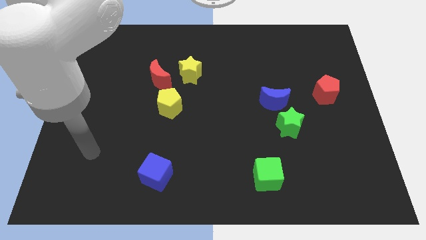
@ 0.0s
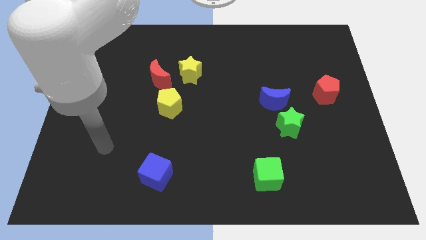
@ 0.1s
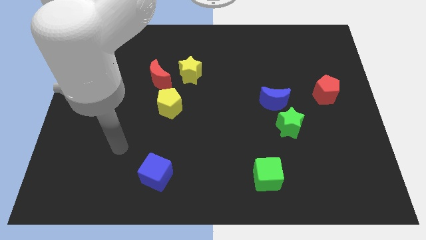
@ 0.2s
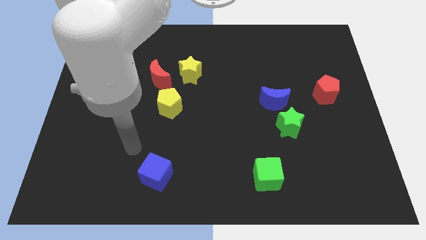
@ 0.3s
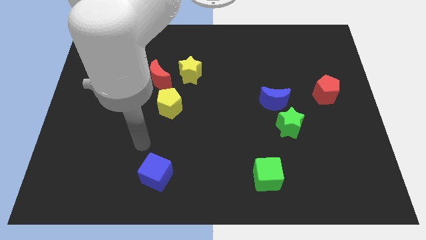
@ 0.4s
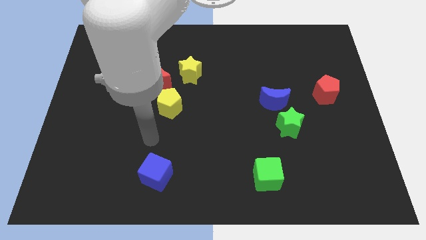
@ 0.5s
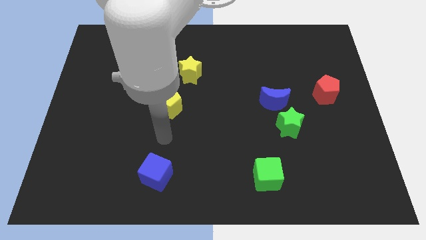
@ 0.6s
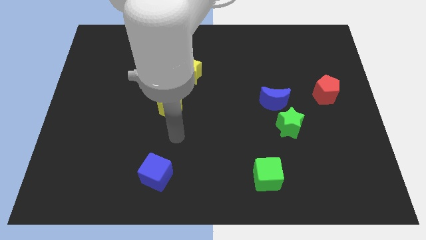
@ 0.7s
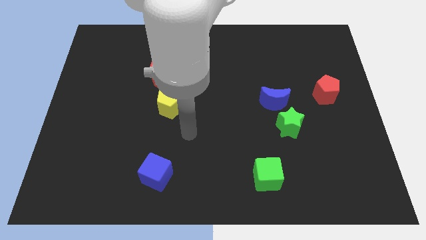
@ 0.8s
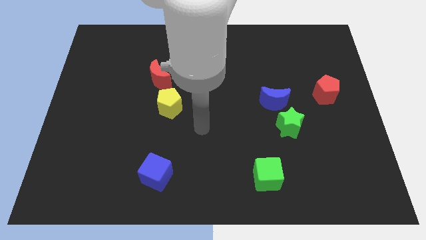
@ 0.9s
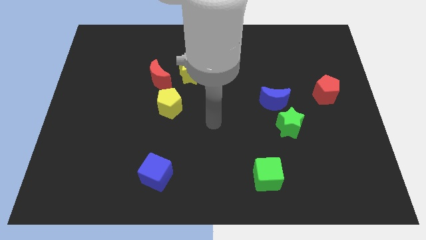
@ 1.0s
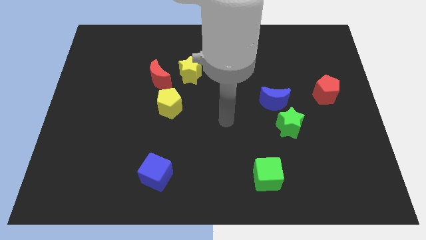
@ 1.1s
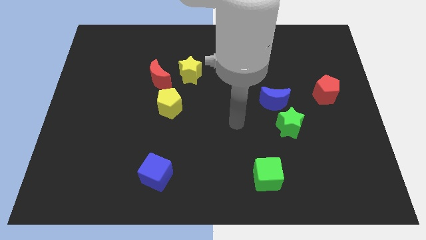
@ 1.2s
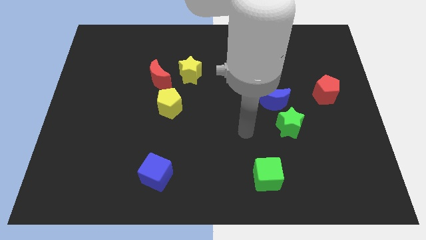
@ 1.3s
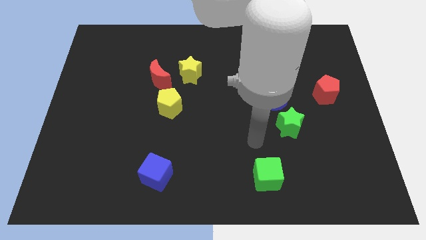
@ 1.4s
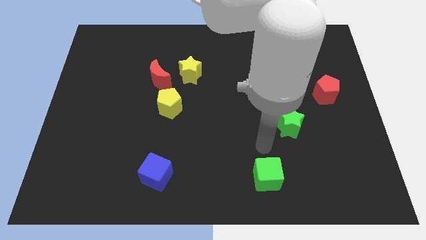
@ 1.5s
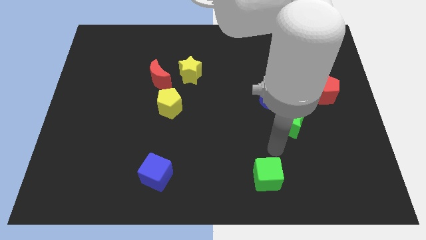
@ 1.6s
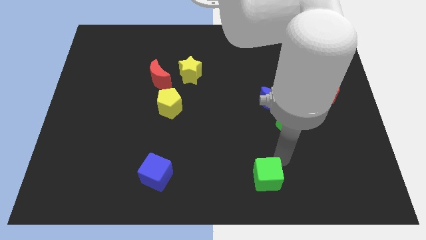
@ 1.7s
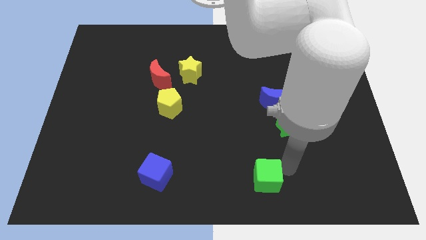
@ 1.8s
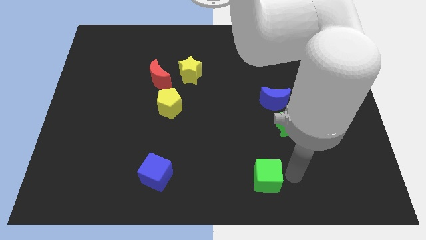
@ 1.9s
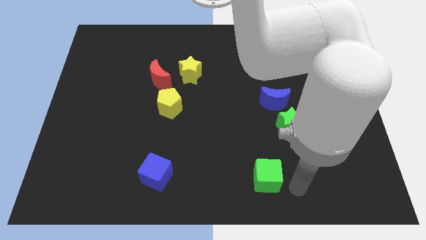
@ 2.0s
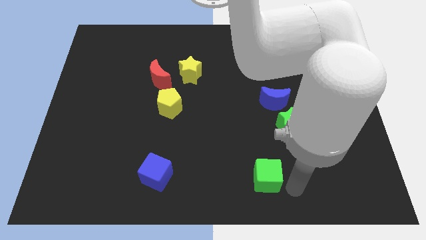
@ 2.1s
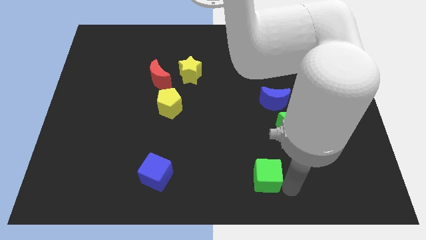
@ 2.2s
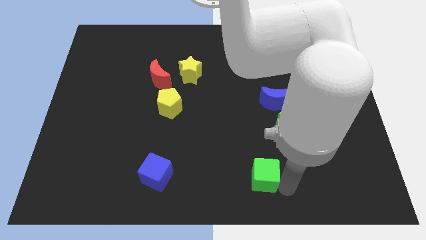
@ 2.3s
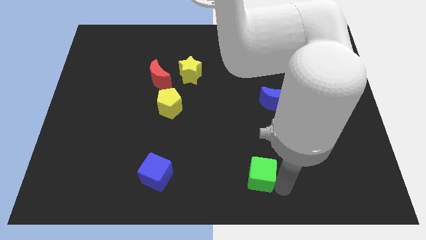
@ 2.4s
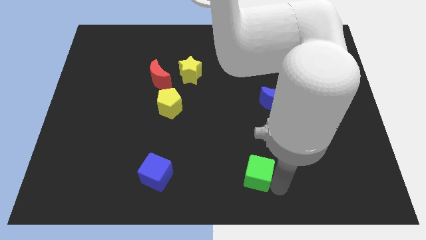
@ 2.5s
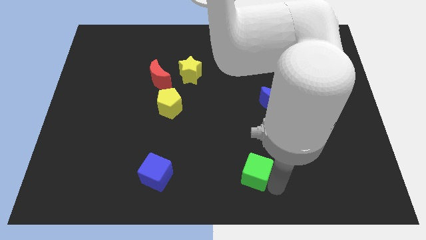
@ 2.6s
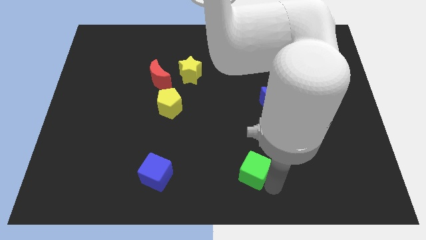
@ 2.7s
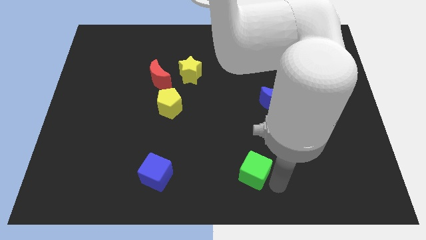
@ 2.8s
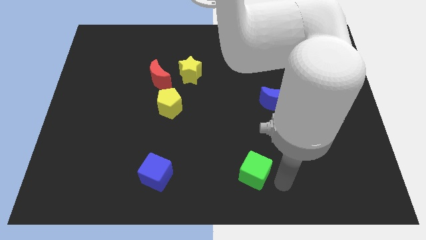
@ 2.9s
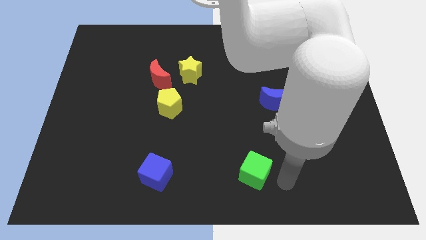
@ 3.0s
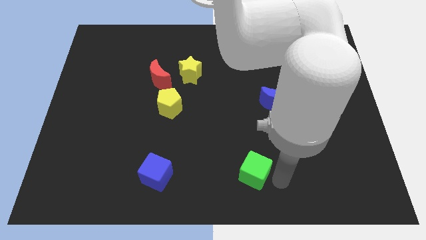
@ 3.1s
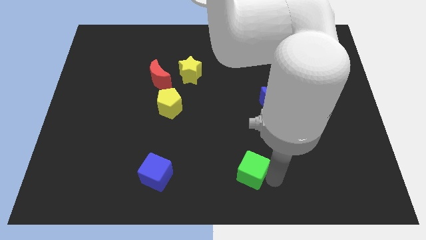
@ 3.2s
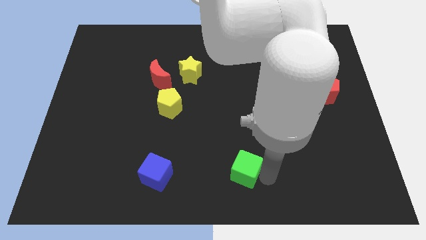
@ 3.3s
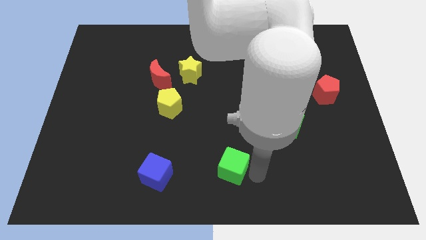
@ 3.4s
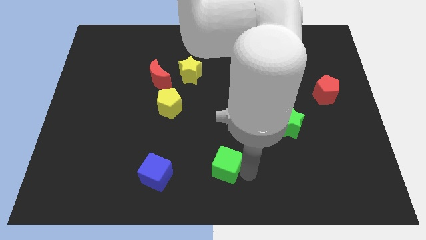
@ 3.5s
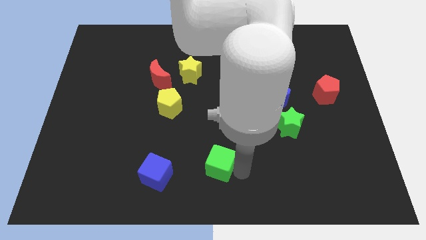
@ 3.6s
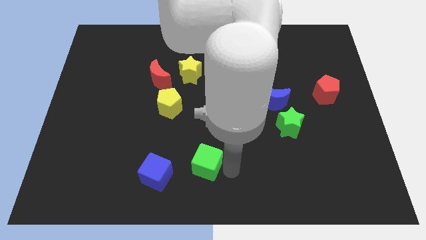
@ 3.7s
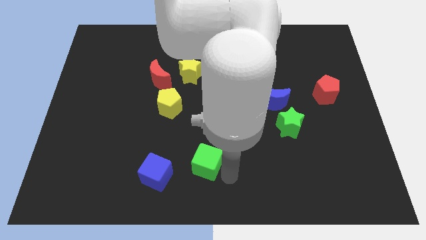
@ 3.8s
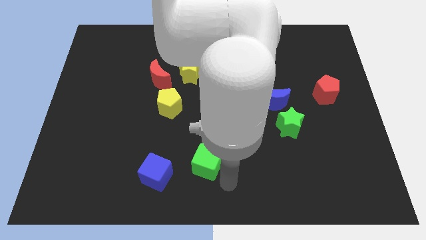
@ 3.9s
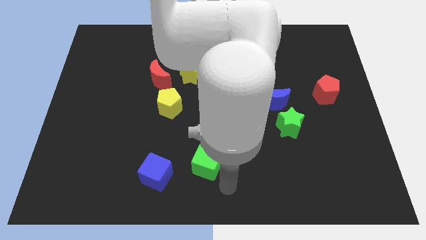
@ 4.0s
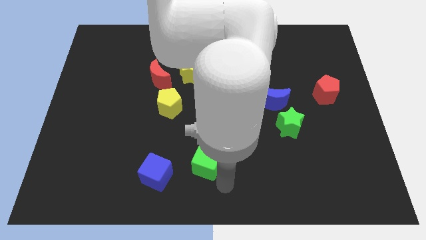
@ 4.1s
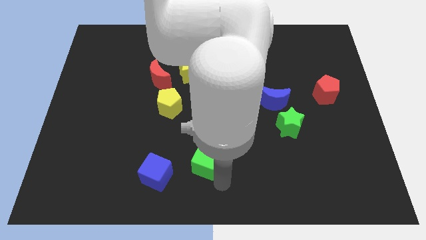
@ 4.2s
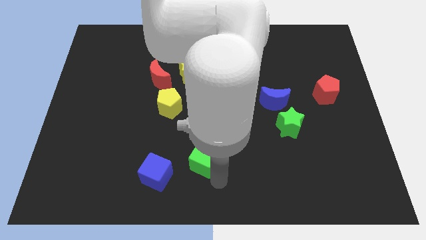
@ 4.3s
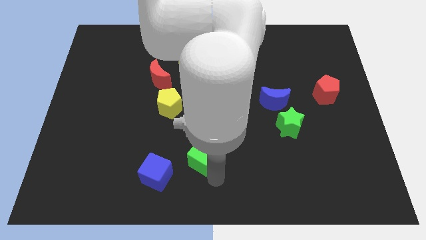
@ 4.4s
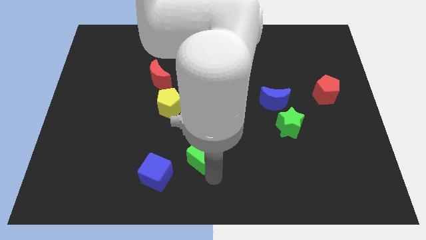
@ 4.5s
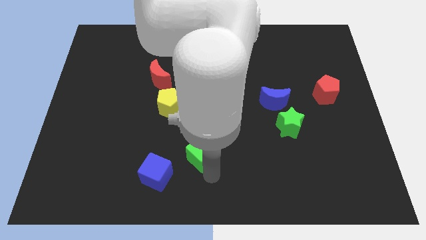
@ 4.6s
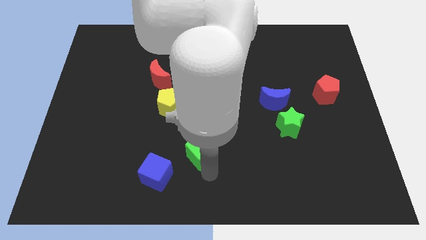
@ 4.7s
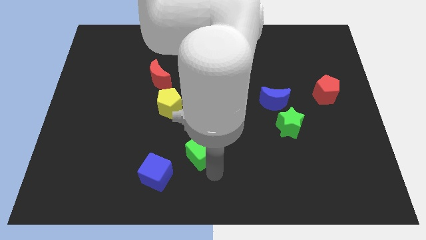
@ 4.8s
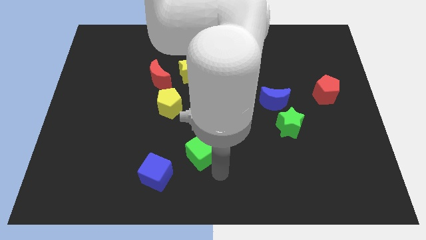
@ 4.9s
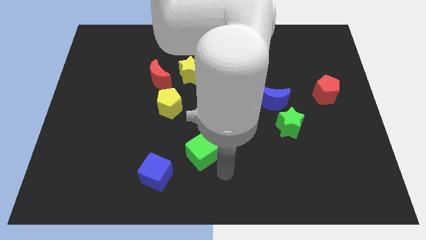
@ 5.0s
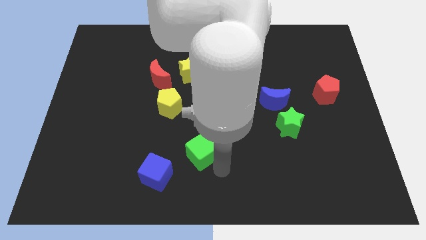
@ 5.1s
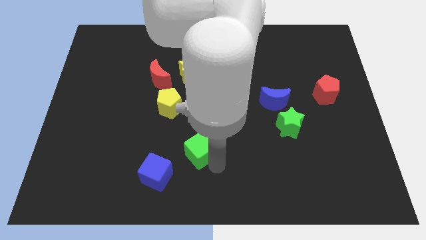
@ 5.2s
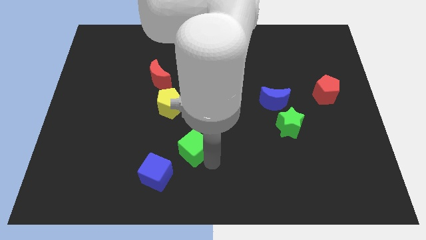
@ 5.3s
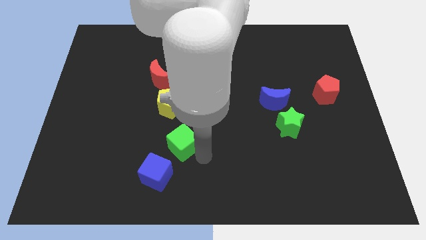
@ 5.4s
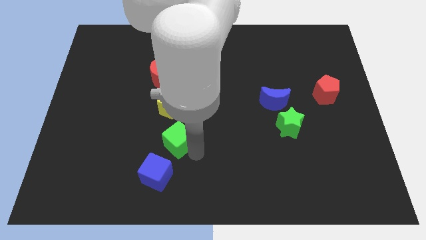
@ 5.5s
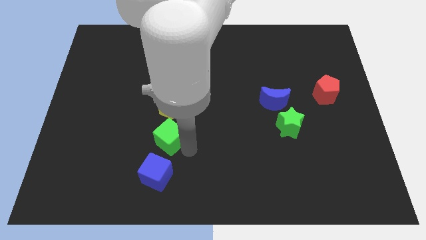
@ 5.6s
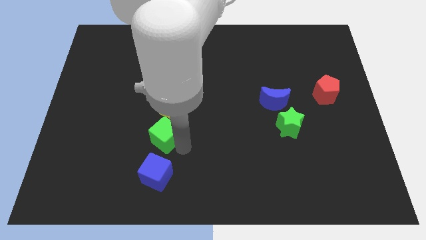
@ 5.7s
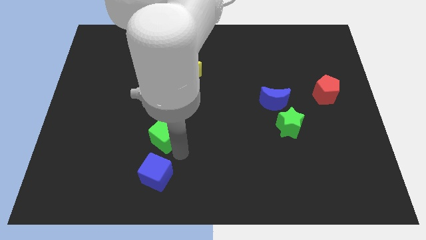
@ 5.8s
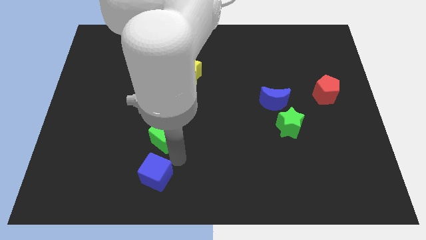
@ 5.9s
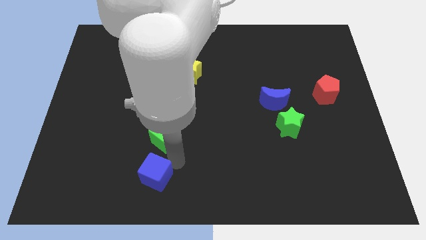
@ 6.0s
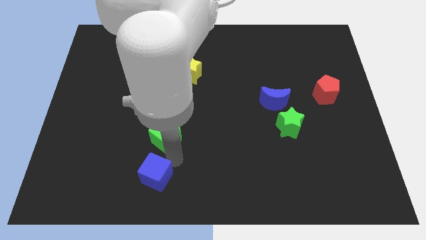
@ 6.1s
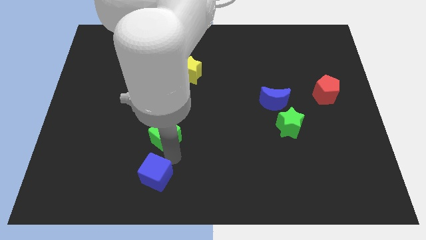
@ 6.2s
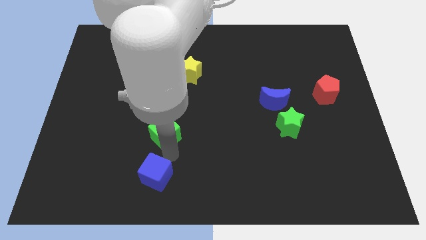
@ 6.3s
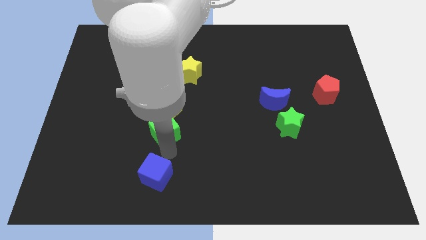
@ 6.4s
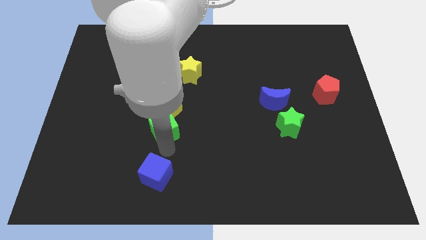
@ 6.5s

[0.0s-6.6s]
put the green cube to the bottom side of the red moon

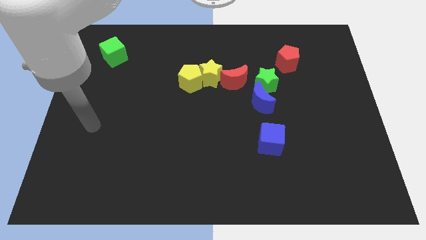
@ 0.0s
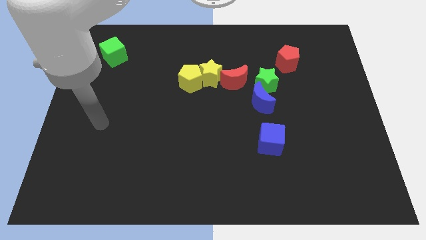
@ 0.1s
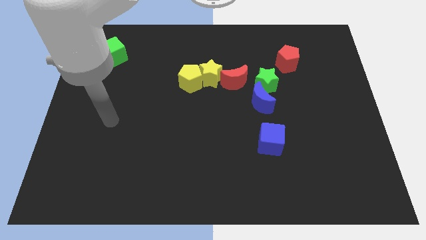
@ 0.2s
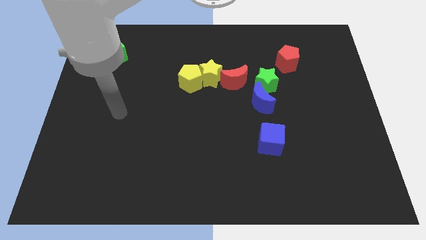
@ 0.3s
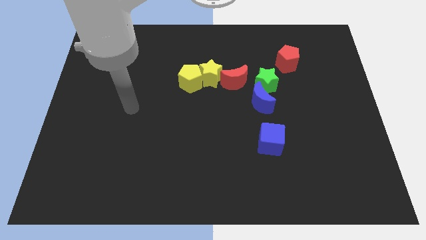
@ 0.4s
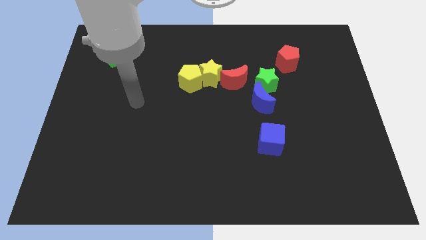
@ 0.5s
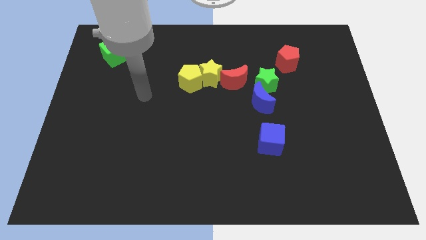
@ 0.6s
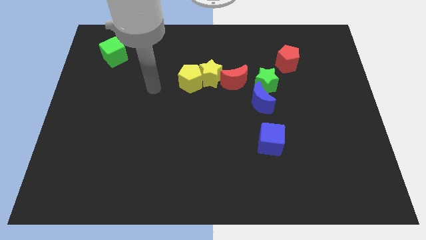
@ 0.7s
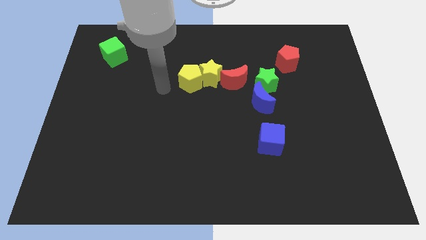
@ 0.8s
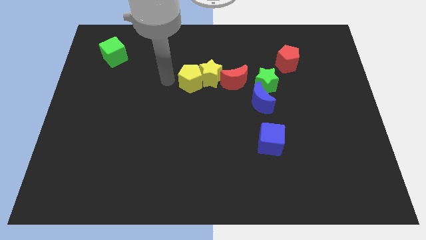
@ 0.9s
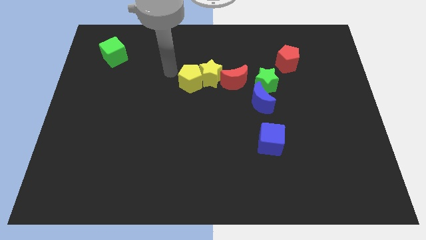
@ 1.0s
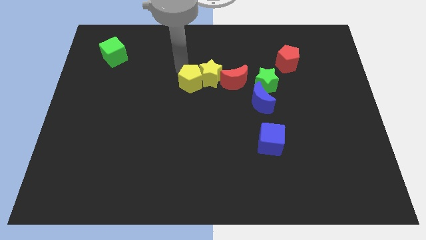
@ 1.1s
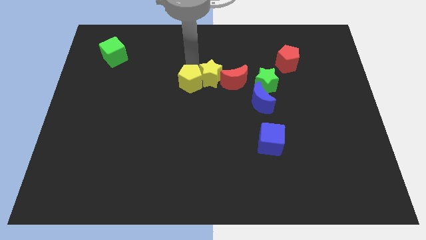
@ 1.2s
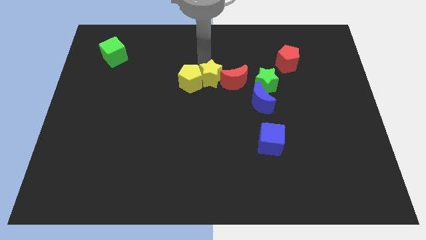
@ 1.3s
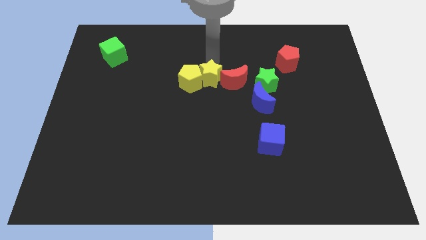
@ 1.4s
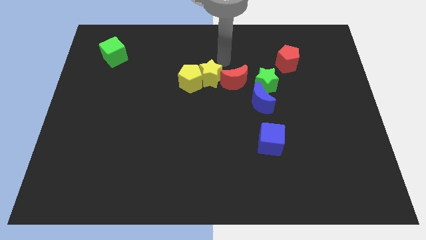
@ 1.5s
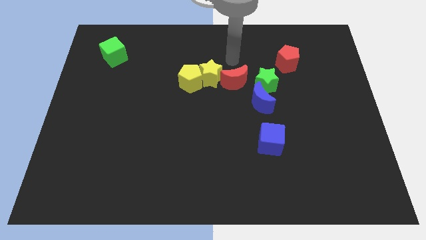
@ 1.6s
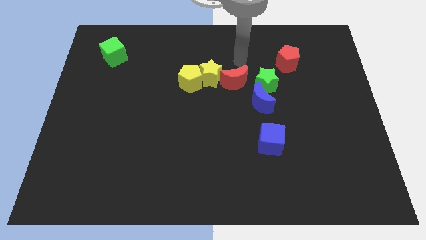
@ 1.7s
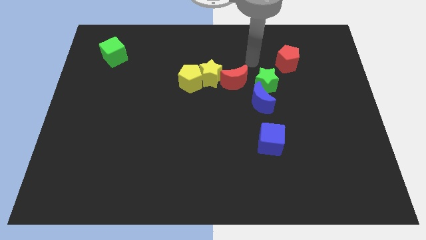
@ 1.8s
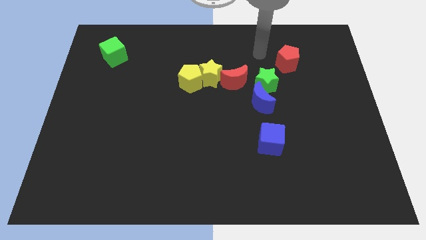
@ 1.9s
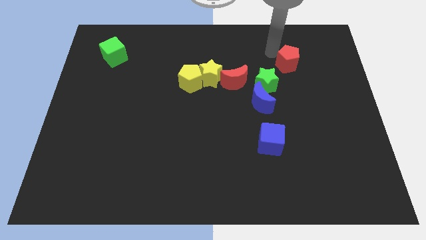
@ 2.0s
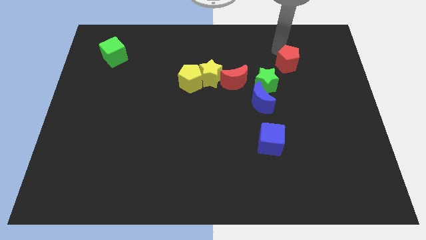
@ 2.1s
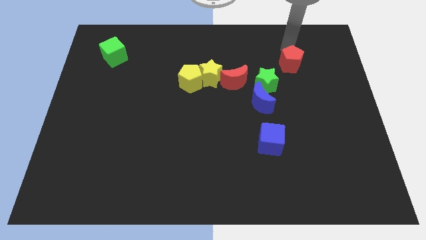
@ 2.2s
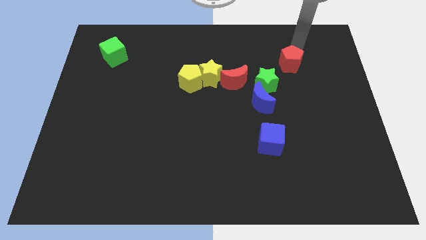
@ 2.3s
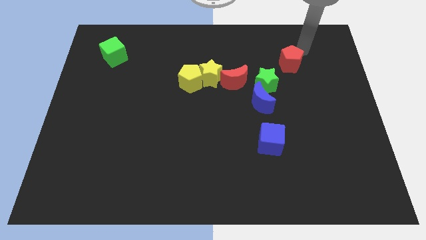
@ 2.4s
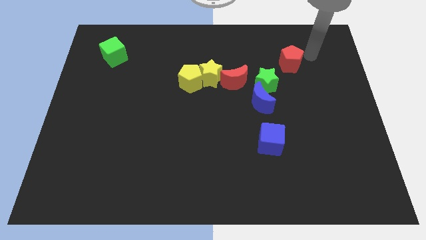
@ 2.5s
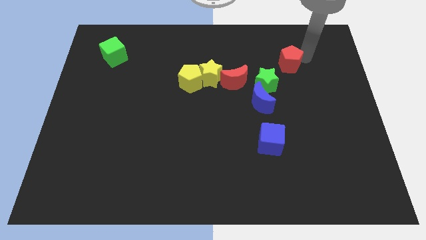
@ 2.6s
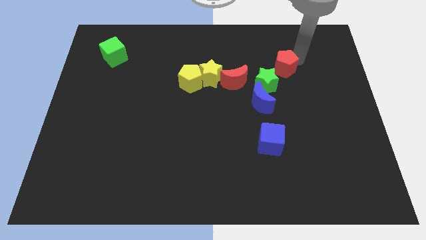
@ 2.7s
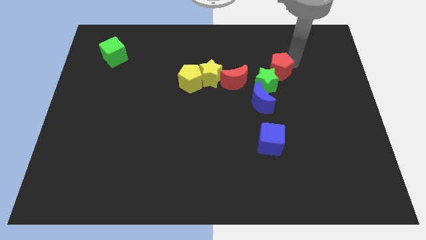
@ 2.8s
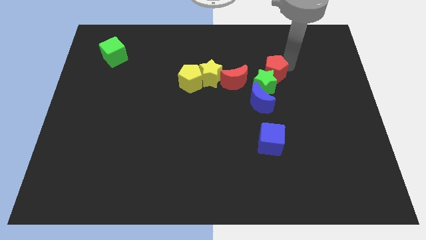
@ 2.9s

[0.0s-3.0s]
push the red pentagon to the top side of the blue moon
